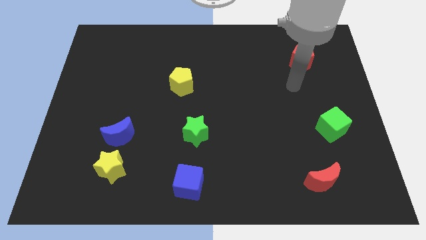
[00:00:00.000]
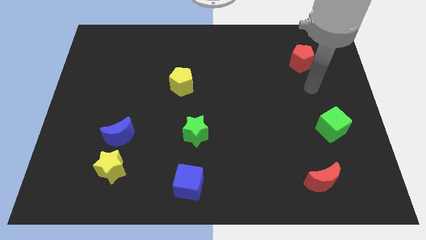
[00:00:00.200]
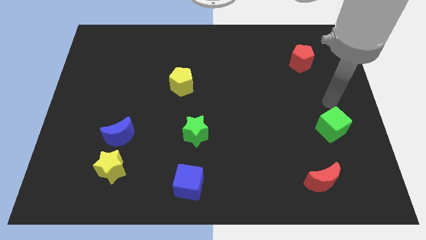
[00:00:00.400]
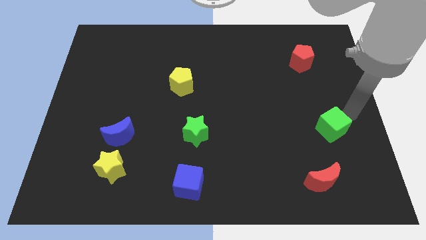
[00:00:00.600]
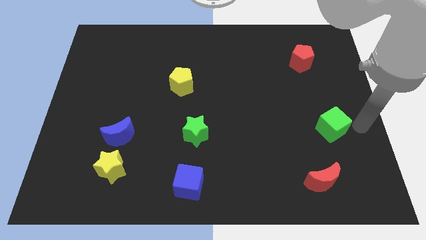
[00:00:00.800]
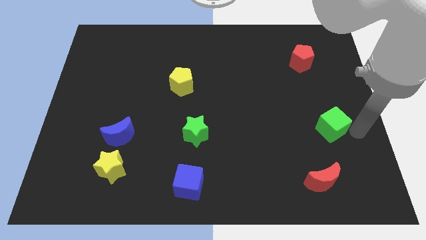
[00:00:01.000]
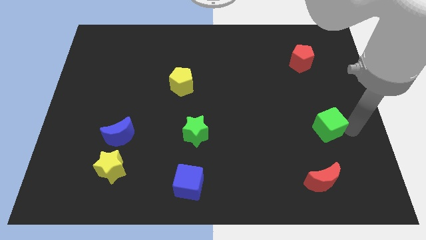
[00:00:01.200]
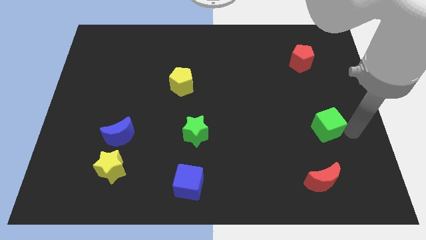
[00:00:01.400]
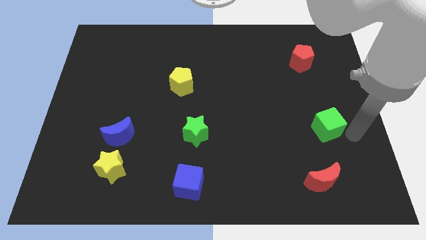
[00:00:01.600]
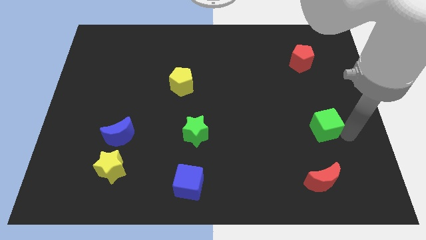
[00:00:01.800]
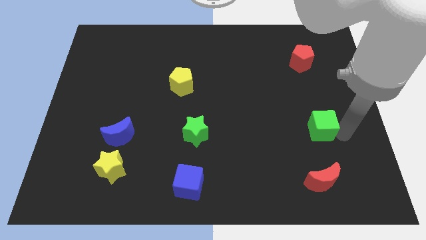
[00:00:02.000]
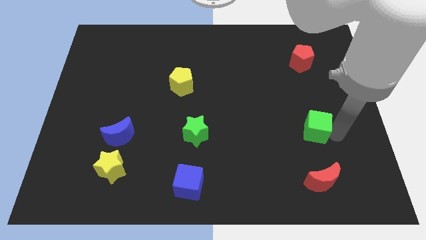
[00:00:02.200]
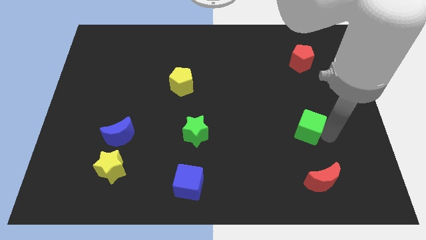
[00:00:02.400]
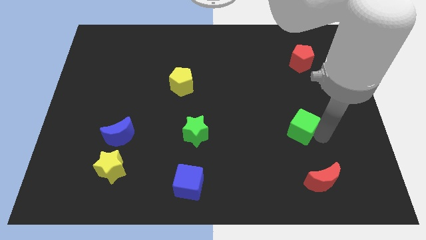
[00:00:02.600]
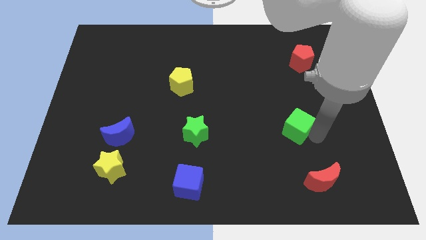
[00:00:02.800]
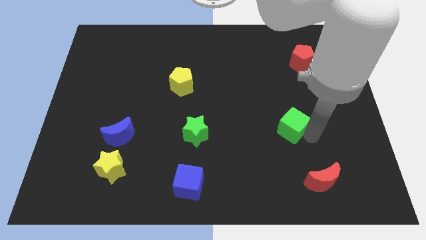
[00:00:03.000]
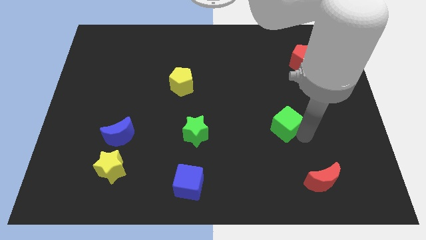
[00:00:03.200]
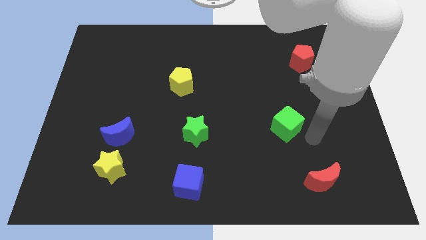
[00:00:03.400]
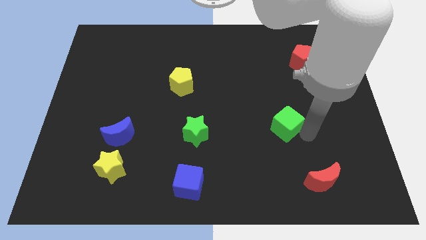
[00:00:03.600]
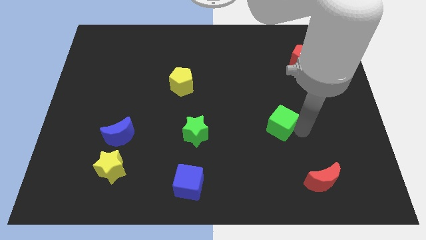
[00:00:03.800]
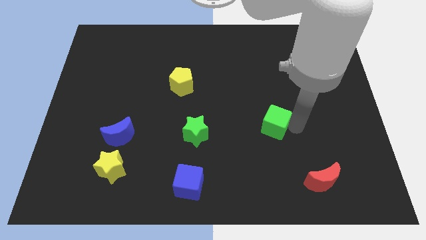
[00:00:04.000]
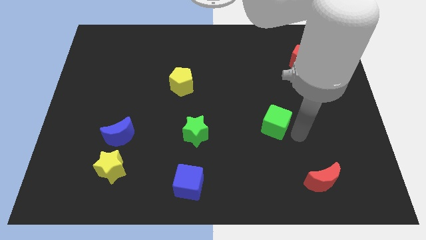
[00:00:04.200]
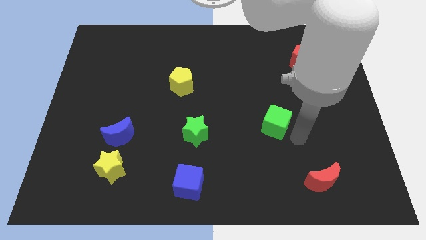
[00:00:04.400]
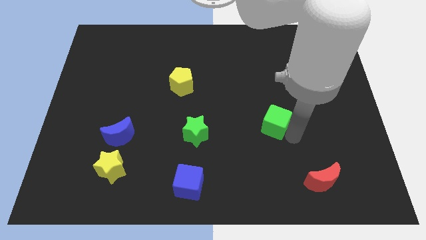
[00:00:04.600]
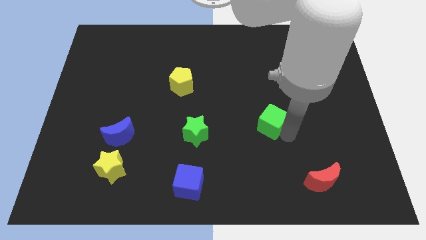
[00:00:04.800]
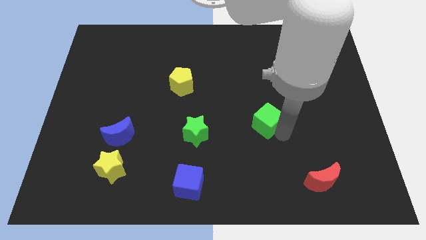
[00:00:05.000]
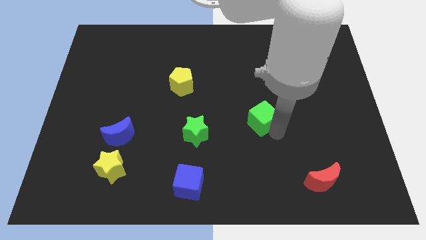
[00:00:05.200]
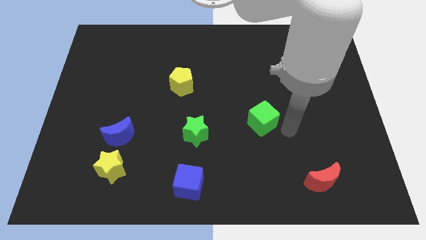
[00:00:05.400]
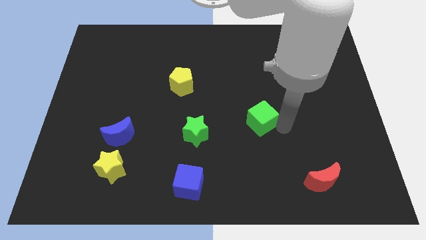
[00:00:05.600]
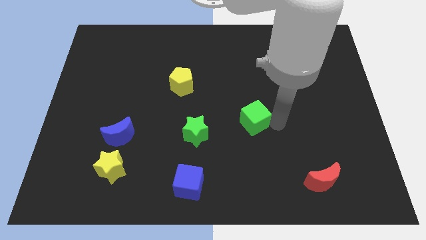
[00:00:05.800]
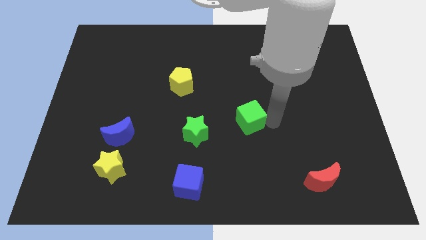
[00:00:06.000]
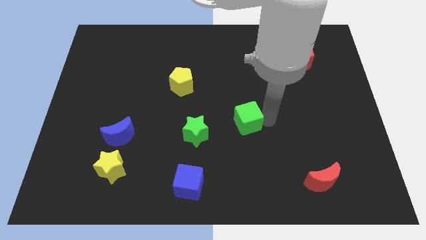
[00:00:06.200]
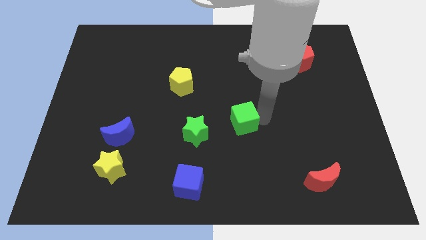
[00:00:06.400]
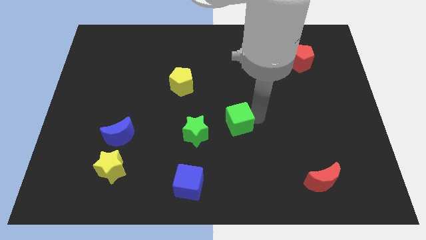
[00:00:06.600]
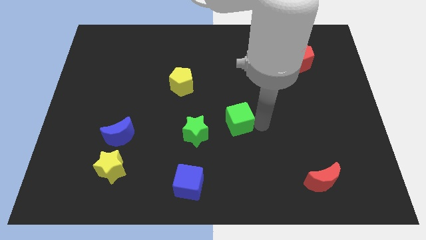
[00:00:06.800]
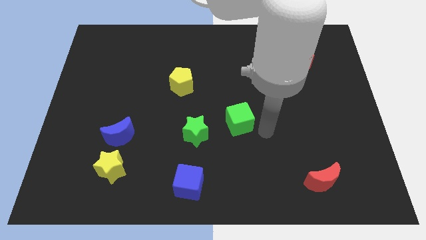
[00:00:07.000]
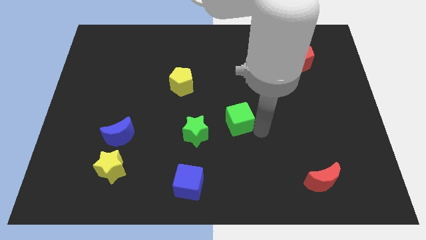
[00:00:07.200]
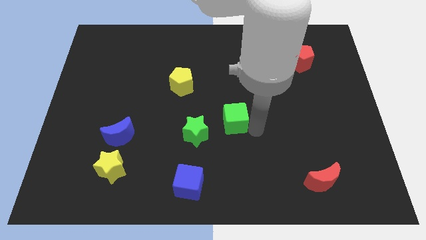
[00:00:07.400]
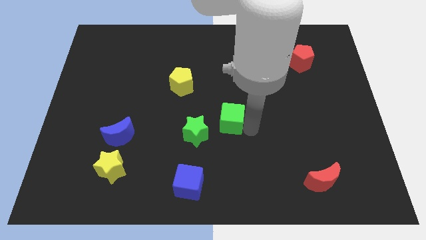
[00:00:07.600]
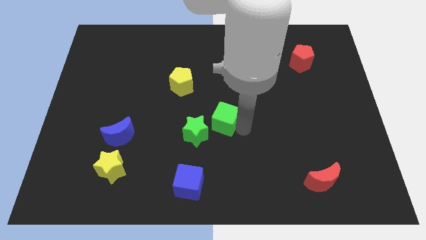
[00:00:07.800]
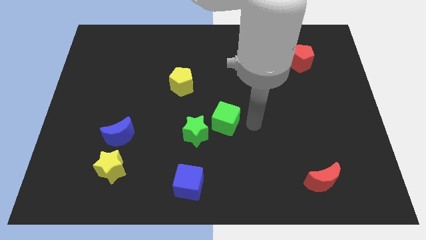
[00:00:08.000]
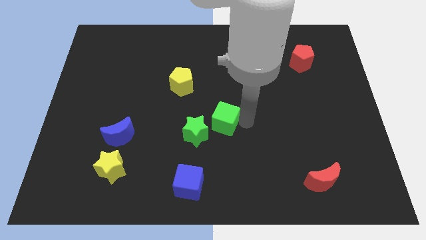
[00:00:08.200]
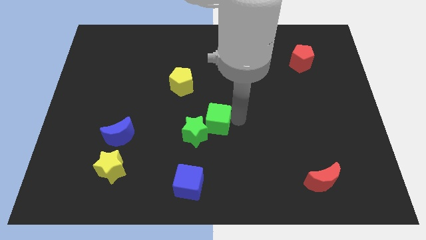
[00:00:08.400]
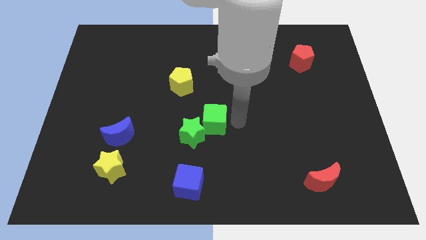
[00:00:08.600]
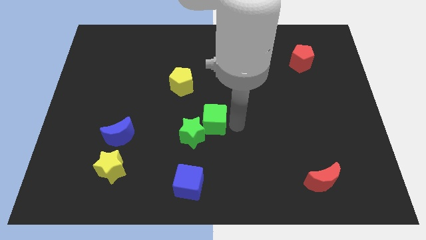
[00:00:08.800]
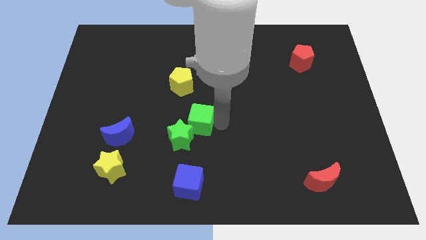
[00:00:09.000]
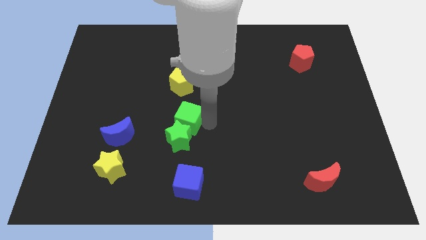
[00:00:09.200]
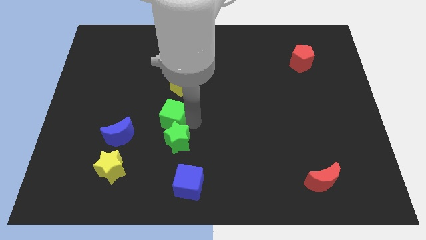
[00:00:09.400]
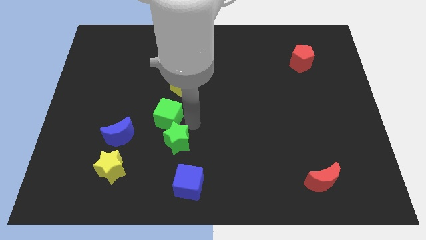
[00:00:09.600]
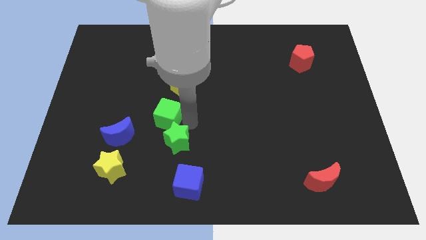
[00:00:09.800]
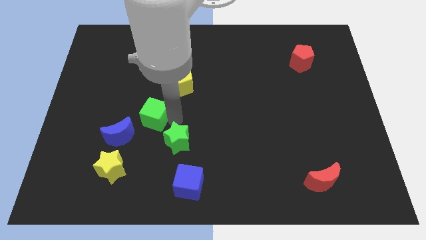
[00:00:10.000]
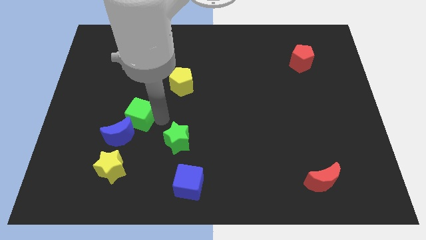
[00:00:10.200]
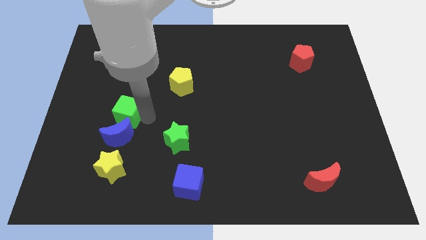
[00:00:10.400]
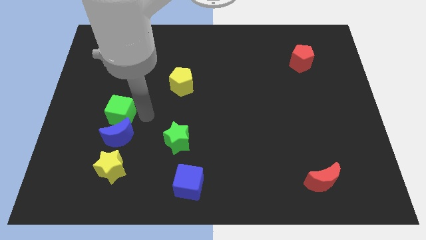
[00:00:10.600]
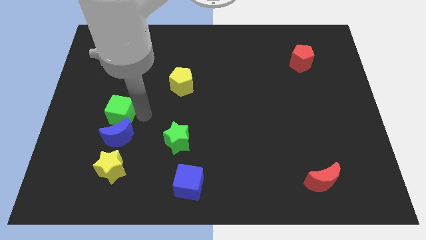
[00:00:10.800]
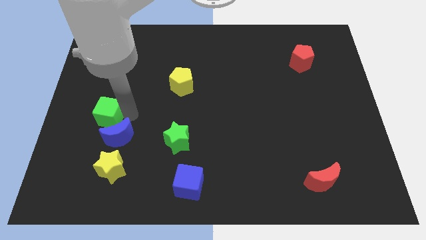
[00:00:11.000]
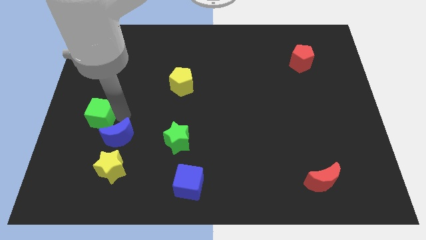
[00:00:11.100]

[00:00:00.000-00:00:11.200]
put the green cube to the center left

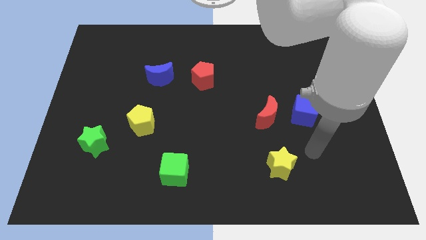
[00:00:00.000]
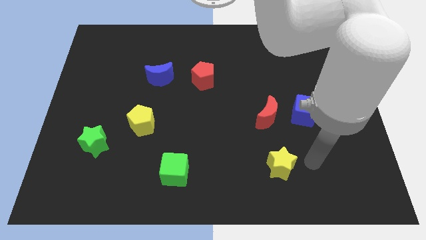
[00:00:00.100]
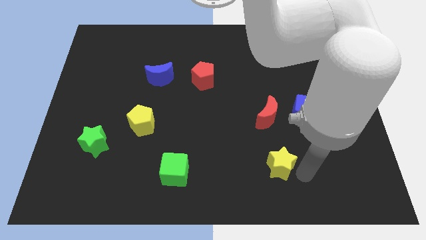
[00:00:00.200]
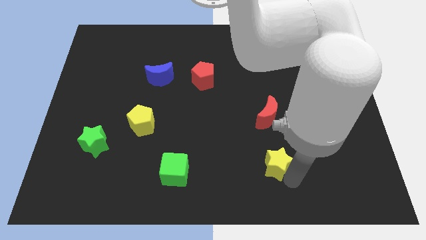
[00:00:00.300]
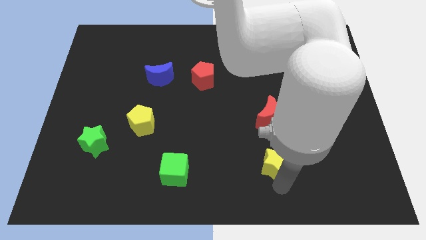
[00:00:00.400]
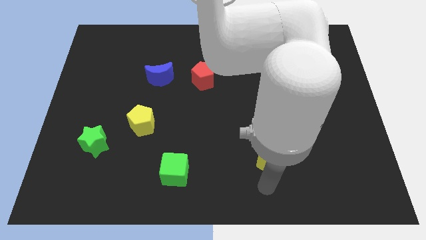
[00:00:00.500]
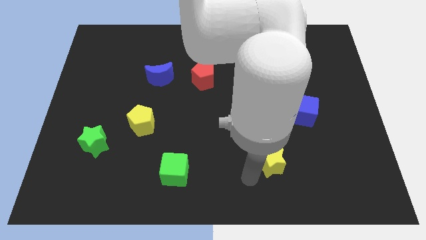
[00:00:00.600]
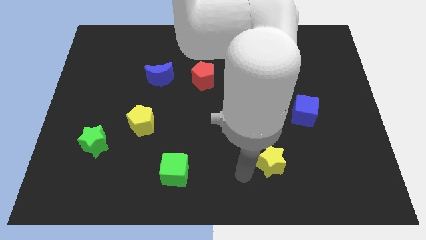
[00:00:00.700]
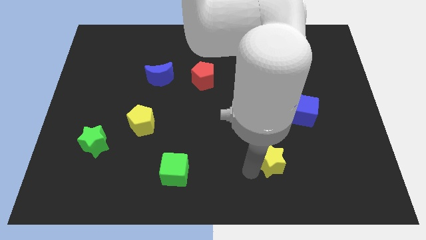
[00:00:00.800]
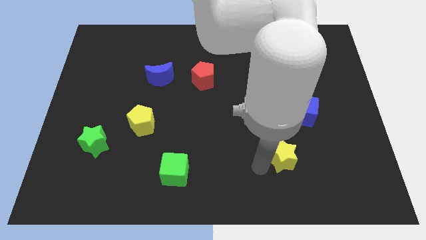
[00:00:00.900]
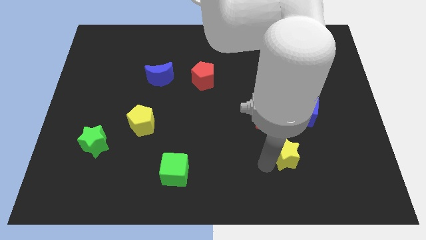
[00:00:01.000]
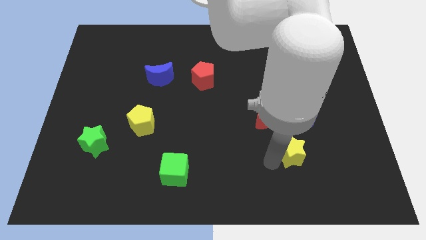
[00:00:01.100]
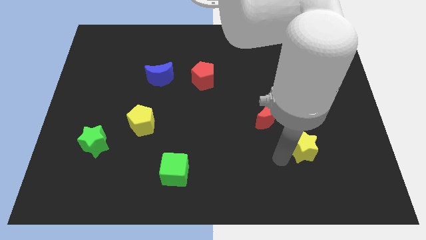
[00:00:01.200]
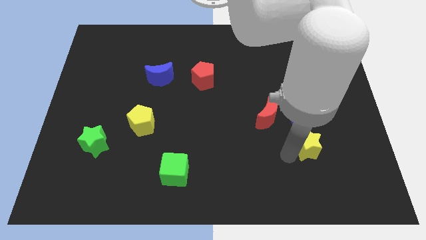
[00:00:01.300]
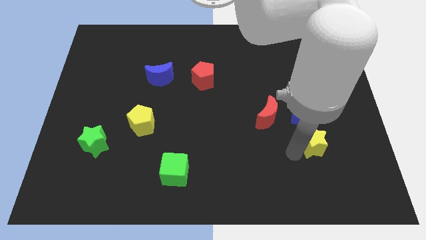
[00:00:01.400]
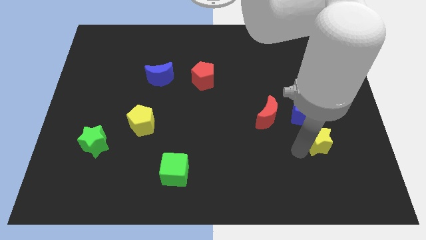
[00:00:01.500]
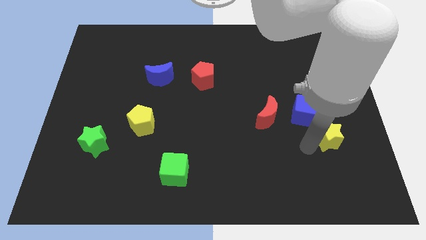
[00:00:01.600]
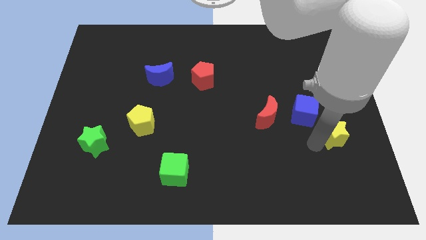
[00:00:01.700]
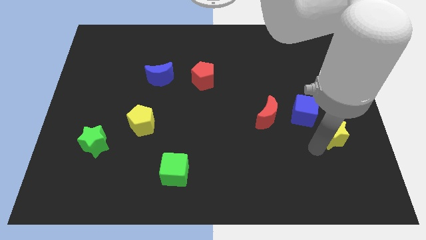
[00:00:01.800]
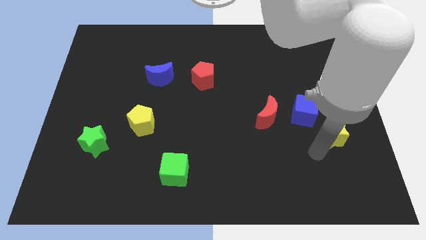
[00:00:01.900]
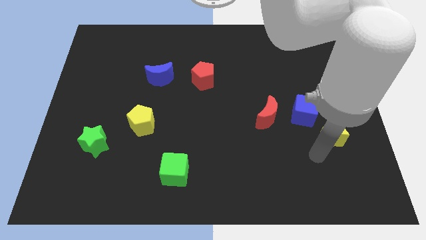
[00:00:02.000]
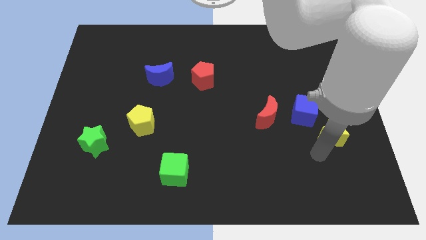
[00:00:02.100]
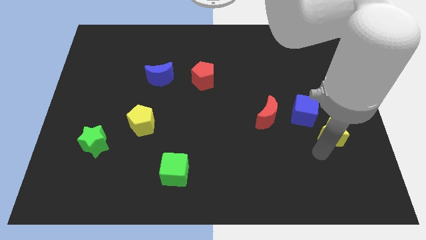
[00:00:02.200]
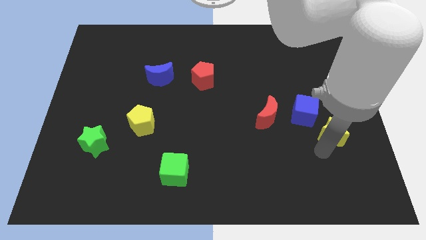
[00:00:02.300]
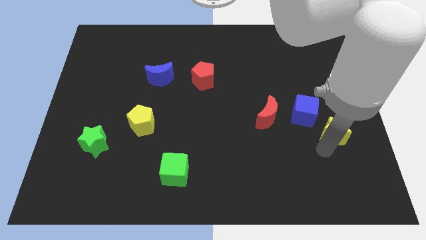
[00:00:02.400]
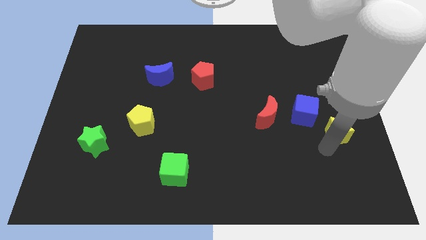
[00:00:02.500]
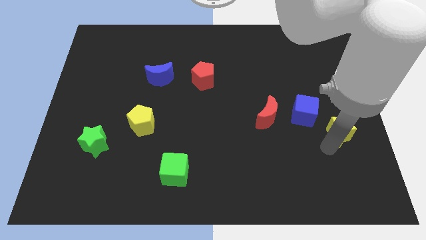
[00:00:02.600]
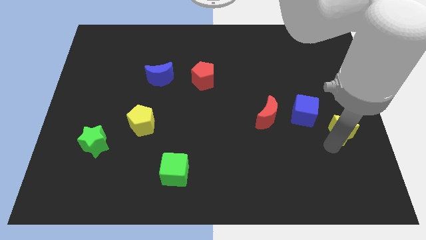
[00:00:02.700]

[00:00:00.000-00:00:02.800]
slide the yellow star to the right side of the board
